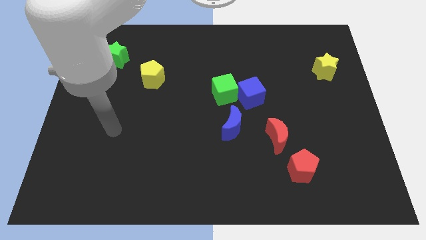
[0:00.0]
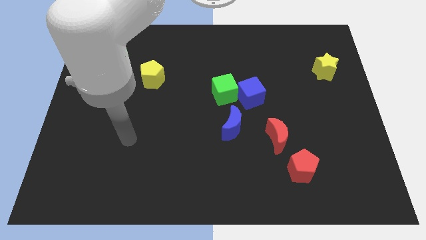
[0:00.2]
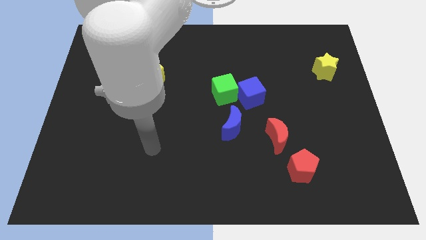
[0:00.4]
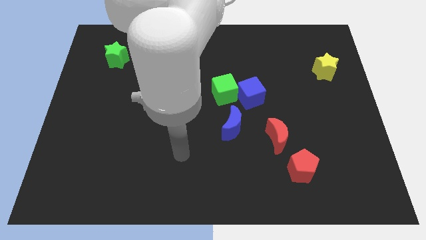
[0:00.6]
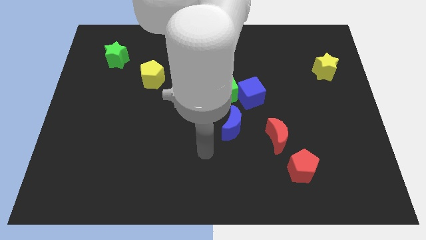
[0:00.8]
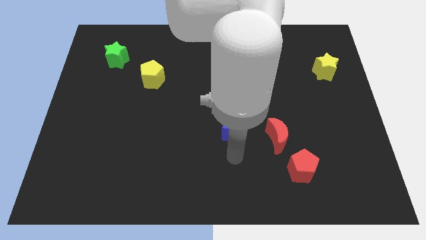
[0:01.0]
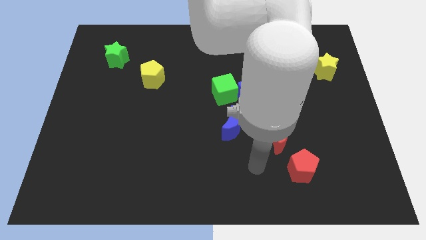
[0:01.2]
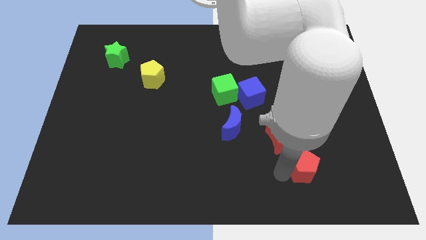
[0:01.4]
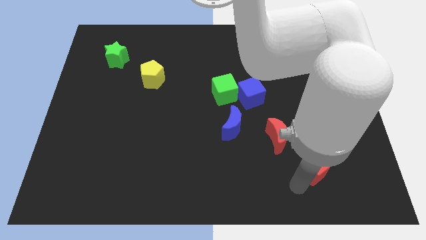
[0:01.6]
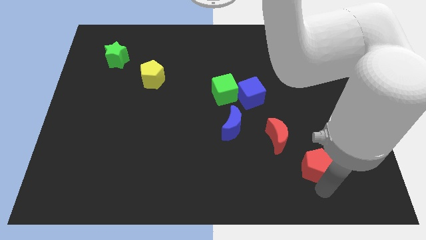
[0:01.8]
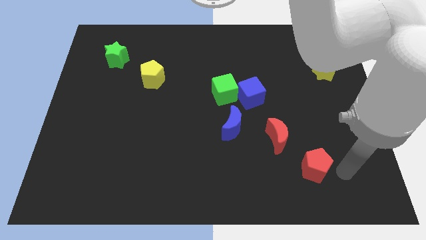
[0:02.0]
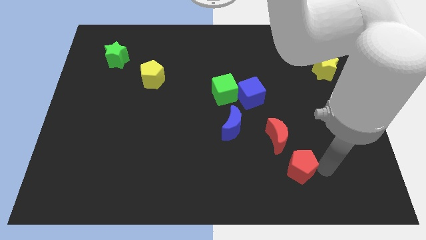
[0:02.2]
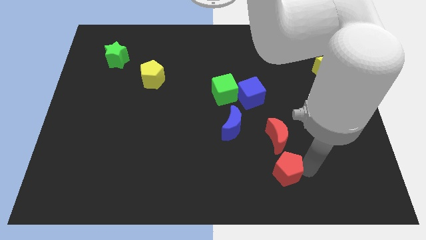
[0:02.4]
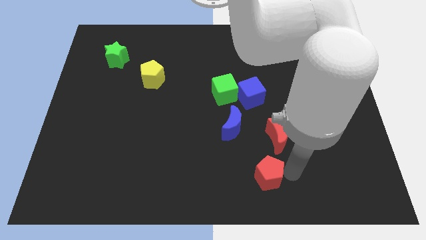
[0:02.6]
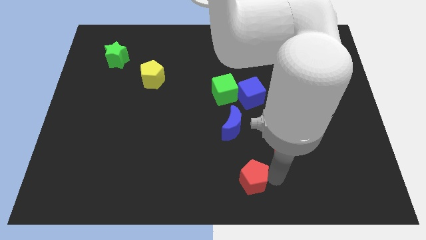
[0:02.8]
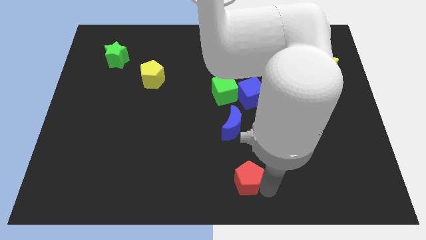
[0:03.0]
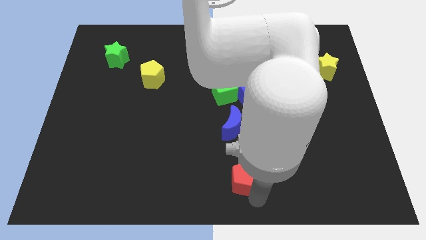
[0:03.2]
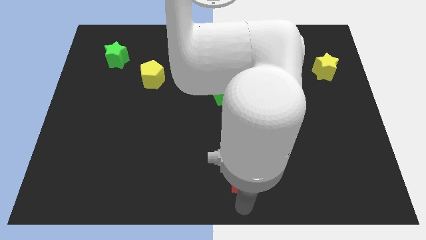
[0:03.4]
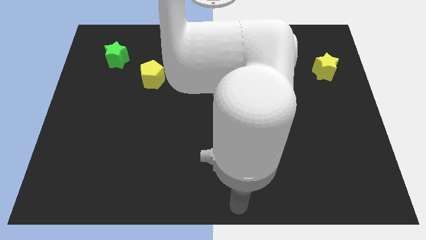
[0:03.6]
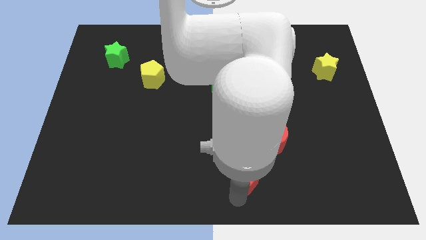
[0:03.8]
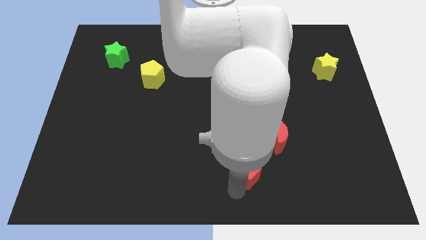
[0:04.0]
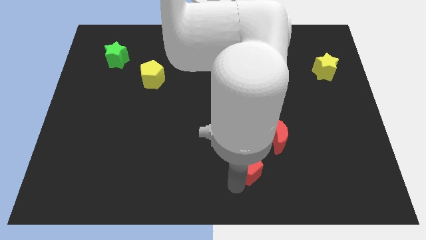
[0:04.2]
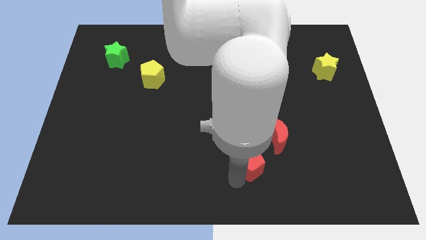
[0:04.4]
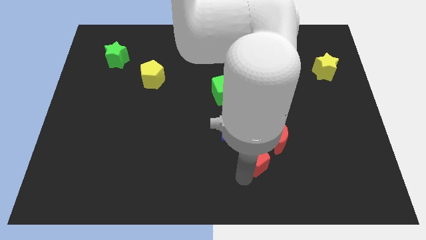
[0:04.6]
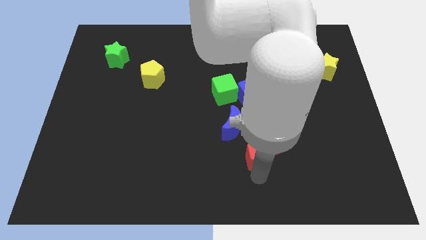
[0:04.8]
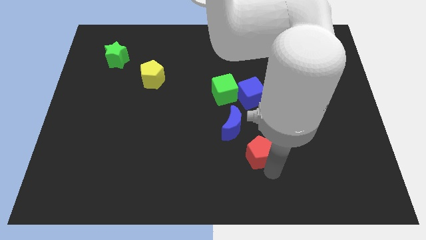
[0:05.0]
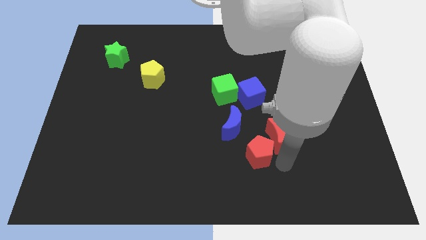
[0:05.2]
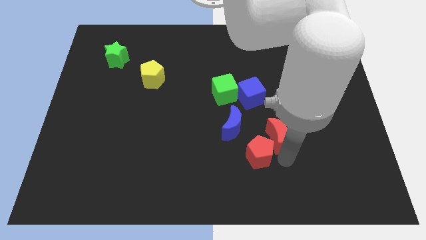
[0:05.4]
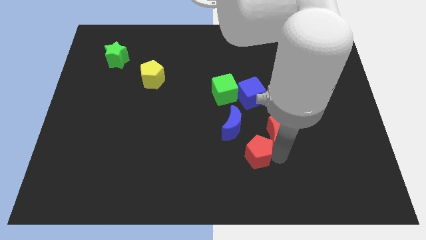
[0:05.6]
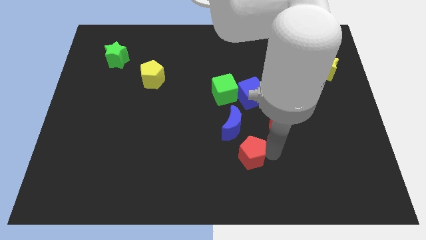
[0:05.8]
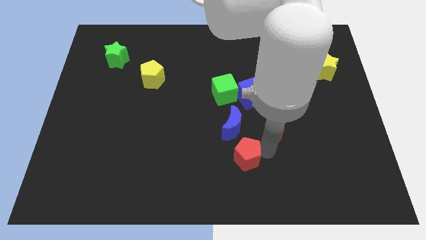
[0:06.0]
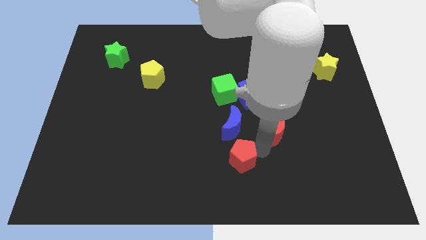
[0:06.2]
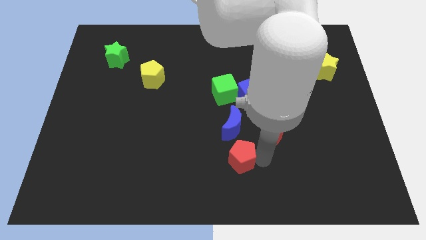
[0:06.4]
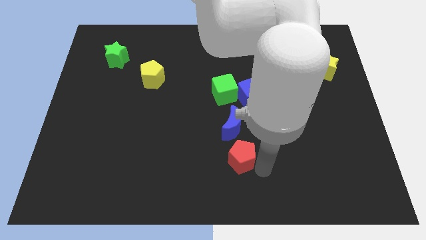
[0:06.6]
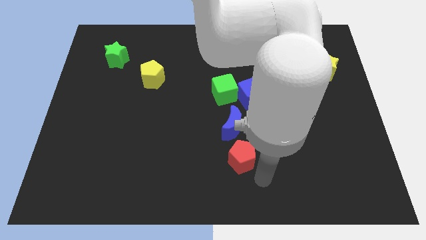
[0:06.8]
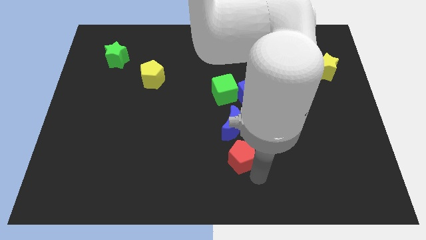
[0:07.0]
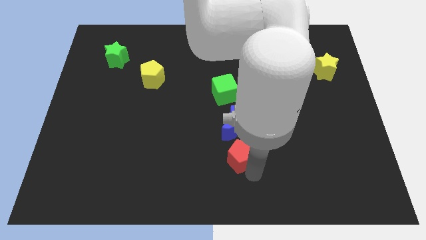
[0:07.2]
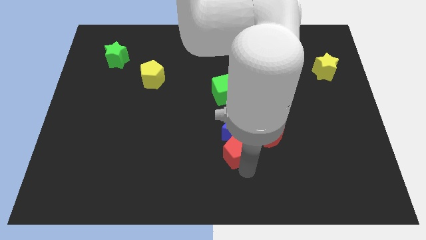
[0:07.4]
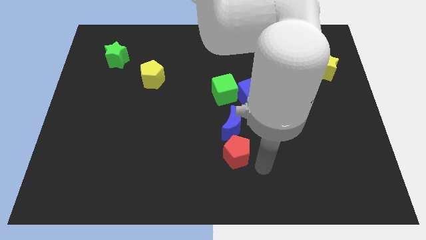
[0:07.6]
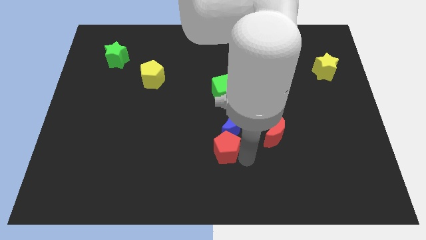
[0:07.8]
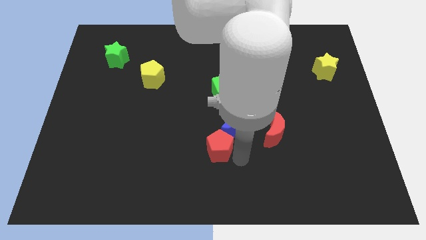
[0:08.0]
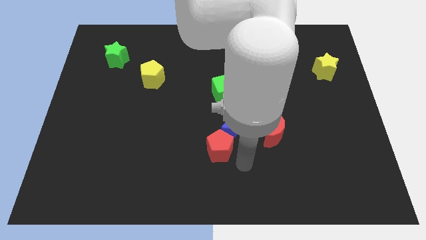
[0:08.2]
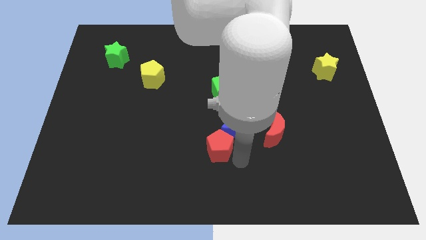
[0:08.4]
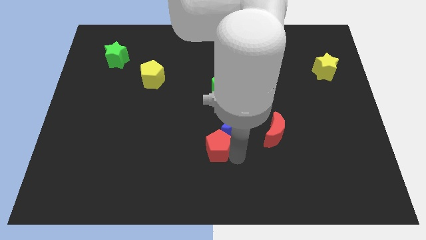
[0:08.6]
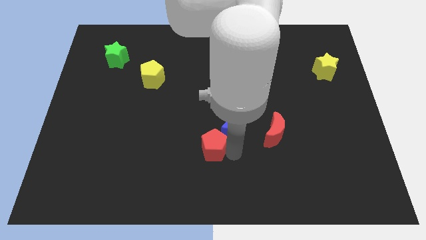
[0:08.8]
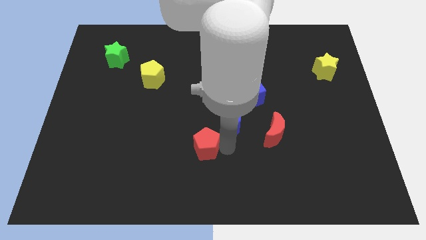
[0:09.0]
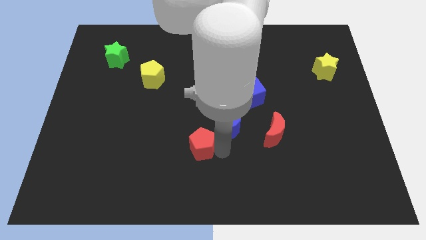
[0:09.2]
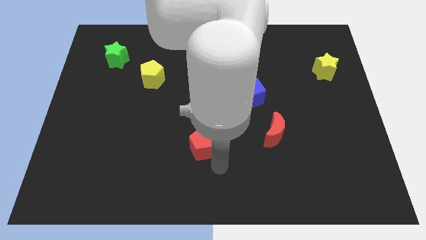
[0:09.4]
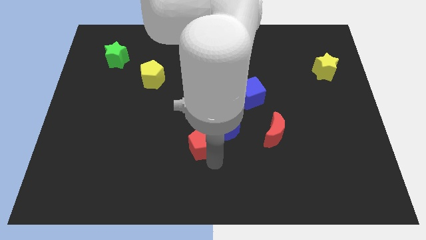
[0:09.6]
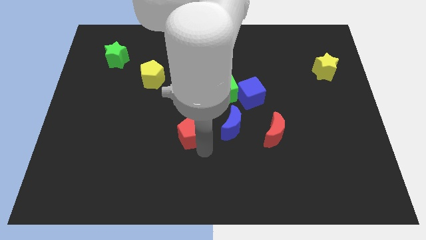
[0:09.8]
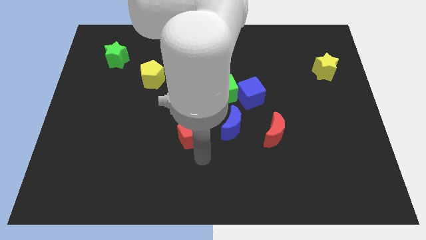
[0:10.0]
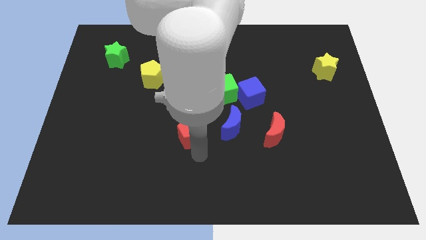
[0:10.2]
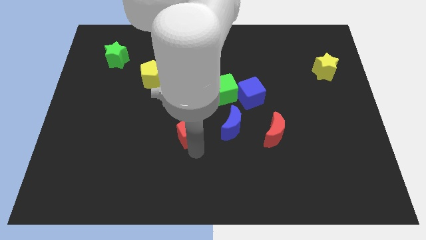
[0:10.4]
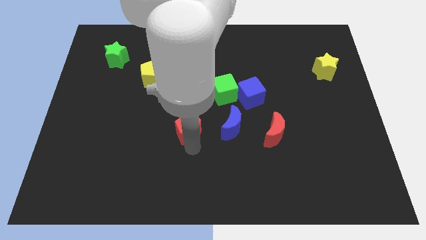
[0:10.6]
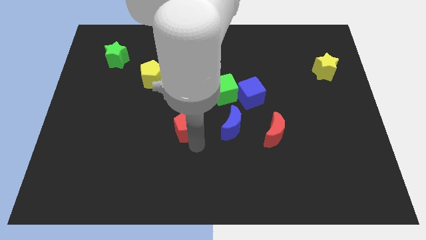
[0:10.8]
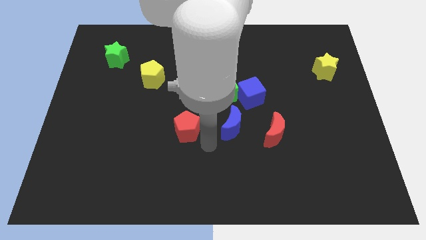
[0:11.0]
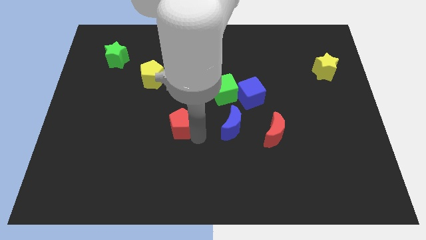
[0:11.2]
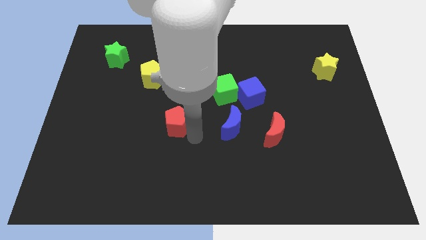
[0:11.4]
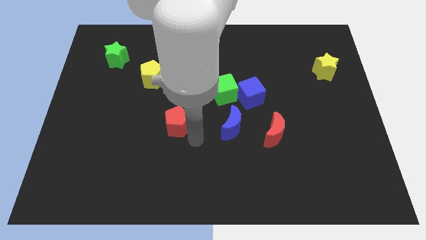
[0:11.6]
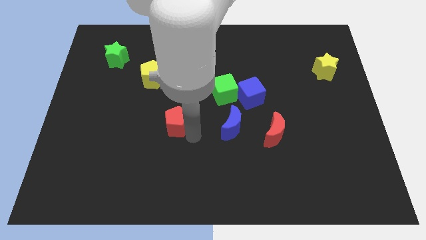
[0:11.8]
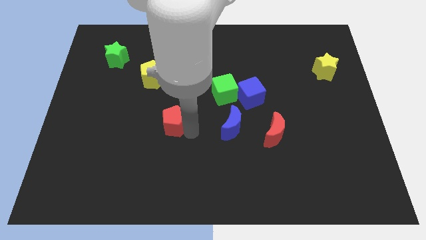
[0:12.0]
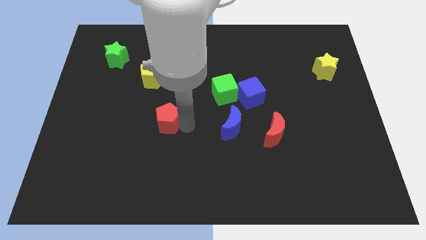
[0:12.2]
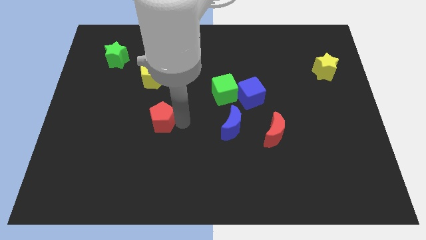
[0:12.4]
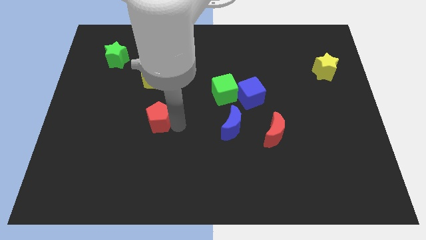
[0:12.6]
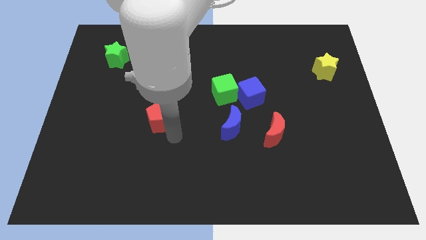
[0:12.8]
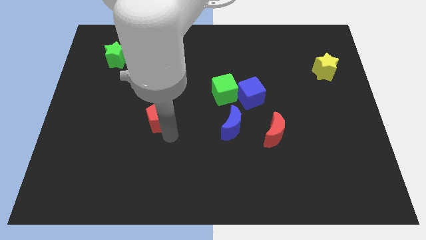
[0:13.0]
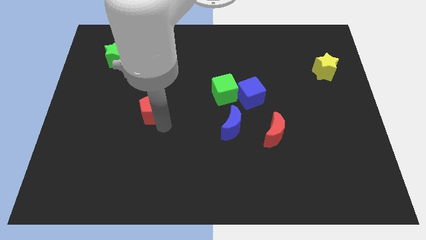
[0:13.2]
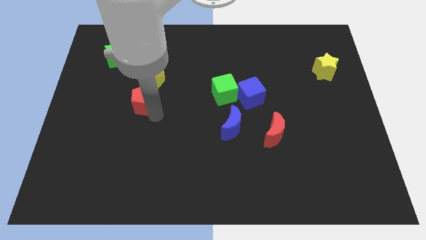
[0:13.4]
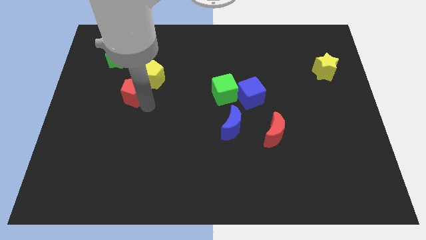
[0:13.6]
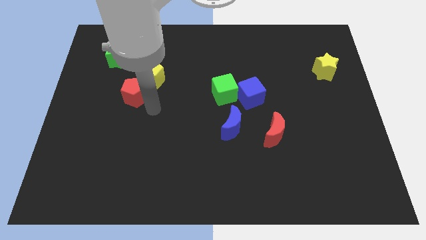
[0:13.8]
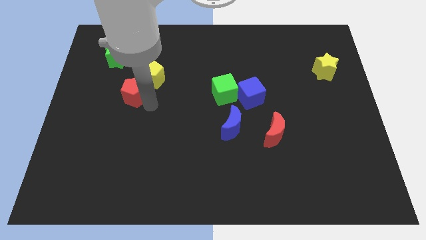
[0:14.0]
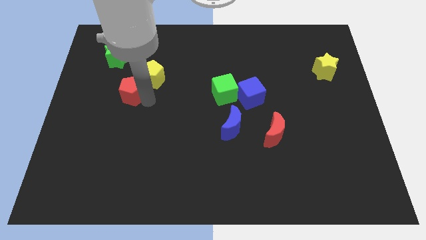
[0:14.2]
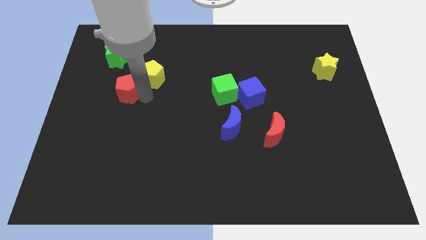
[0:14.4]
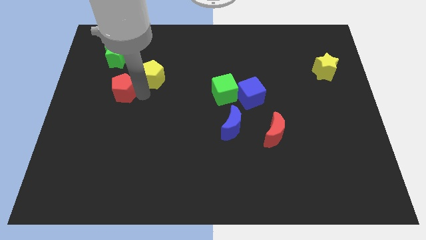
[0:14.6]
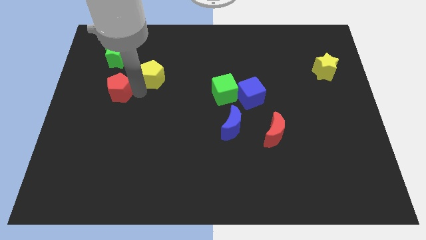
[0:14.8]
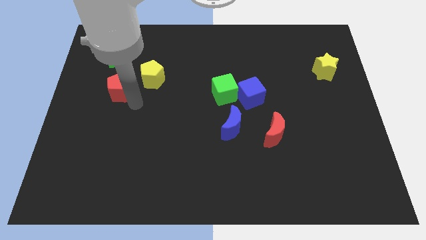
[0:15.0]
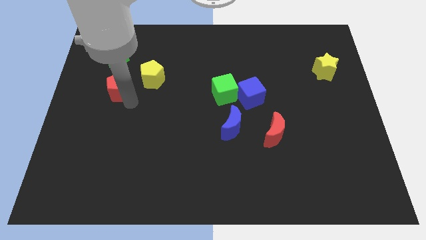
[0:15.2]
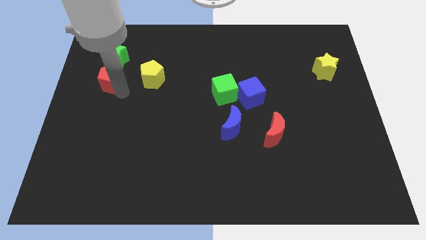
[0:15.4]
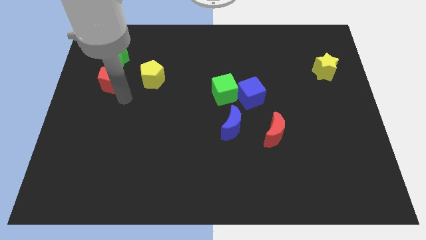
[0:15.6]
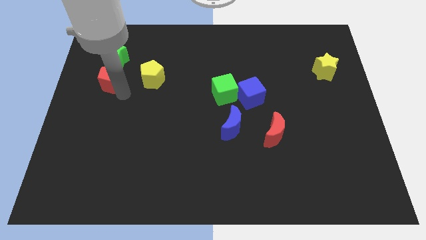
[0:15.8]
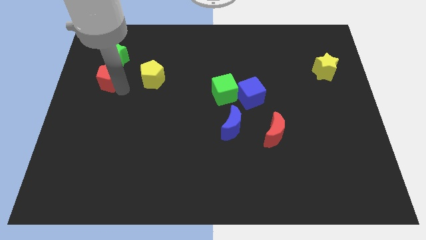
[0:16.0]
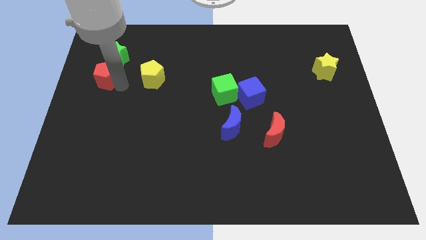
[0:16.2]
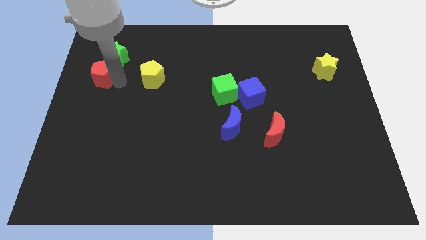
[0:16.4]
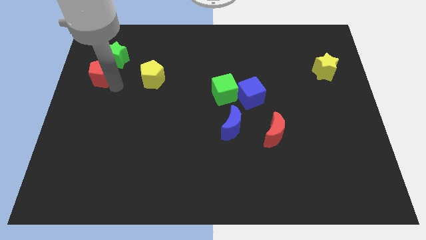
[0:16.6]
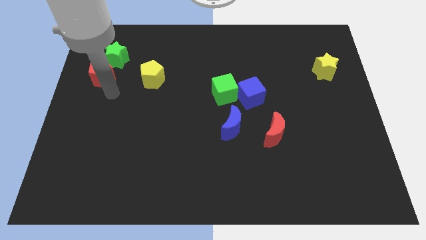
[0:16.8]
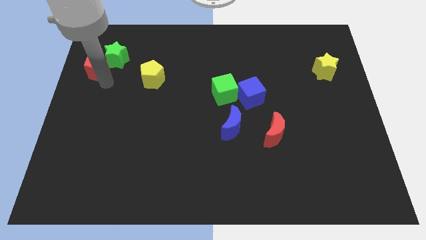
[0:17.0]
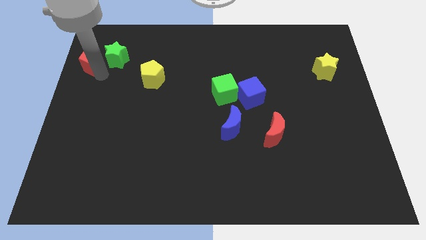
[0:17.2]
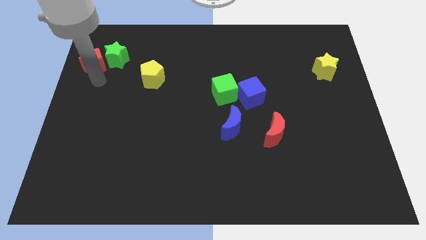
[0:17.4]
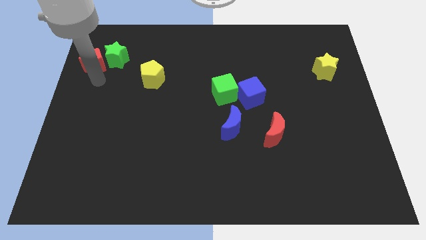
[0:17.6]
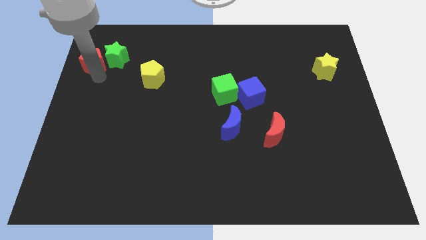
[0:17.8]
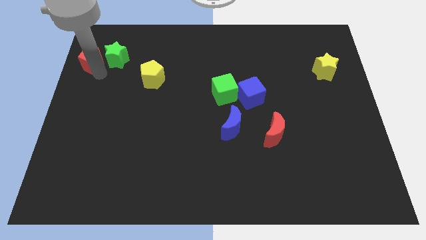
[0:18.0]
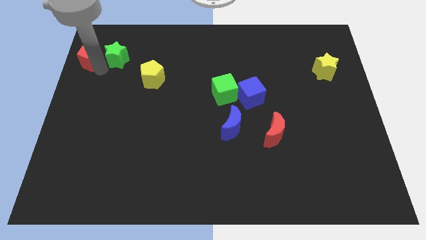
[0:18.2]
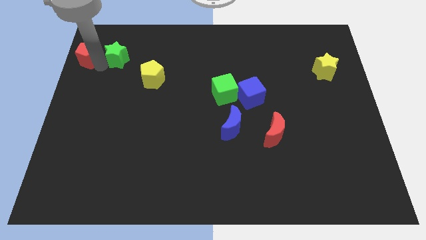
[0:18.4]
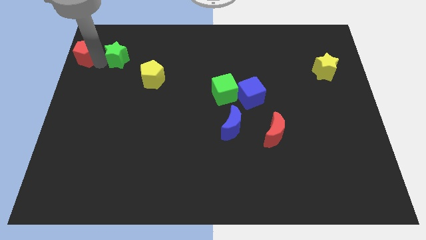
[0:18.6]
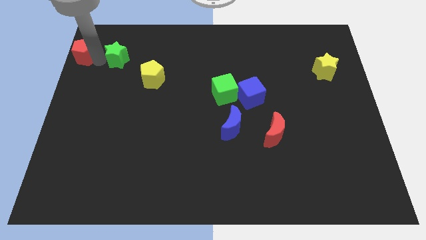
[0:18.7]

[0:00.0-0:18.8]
move the red pentagon to the top left corner
